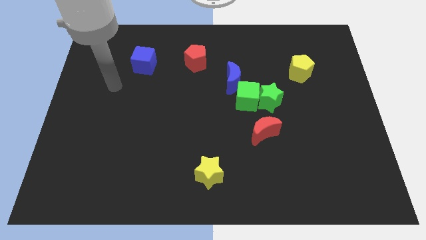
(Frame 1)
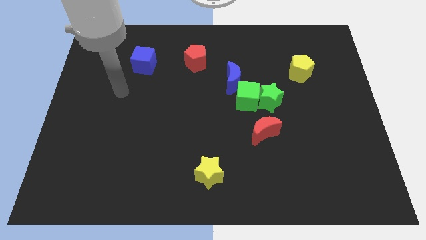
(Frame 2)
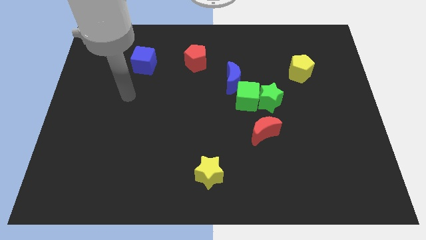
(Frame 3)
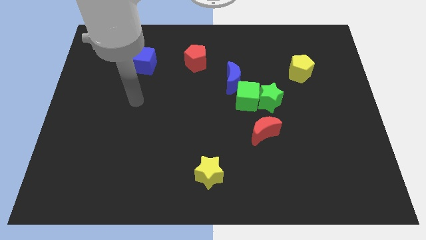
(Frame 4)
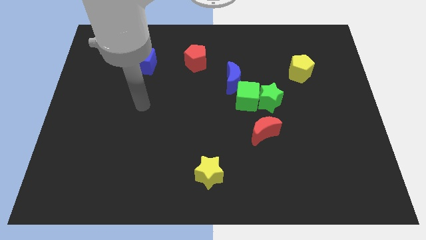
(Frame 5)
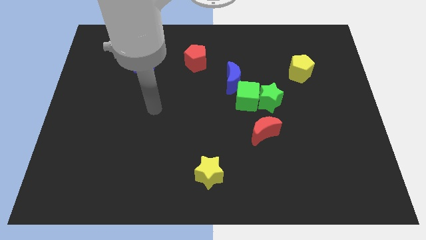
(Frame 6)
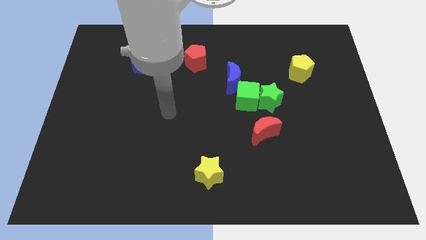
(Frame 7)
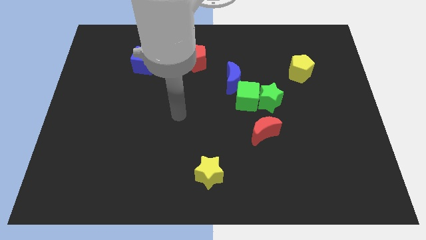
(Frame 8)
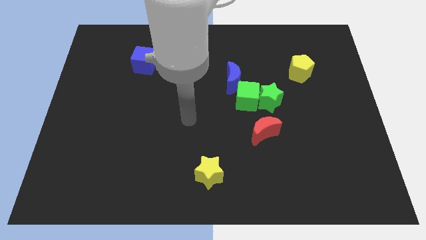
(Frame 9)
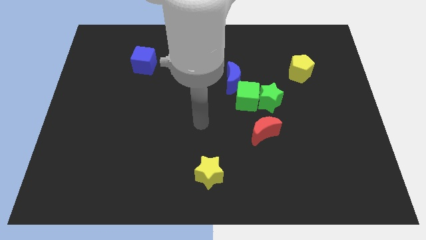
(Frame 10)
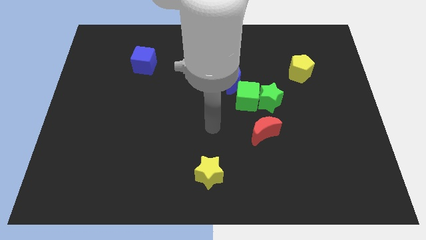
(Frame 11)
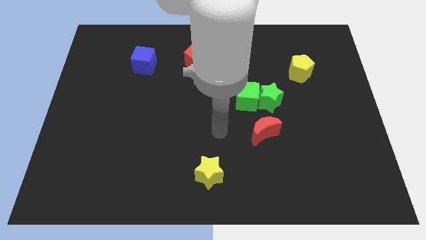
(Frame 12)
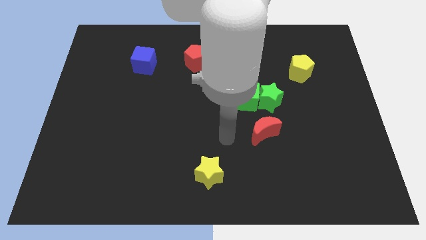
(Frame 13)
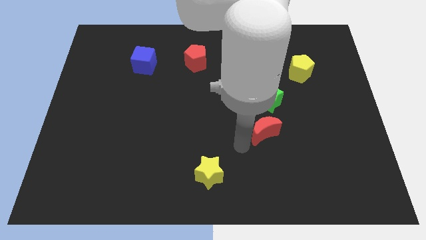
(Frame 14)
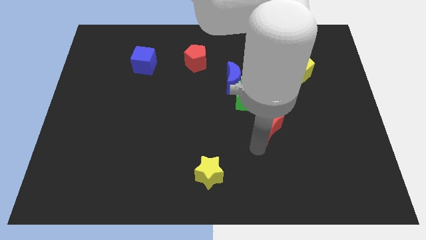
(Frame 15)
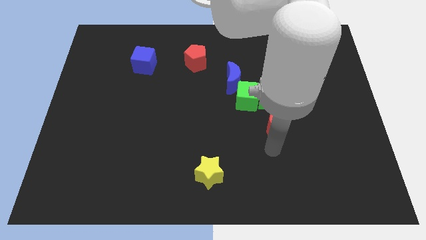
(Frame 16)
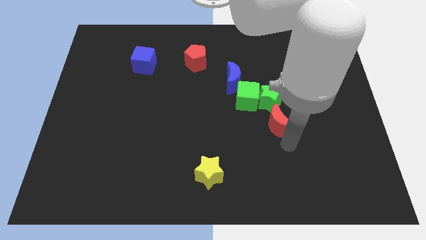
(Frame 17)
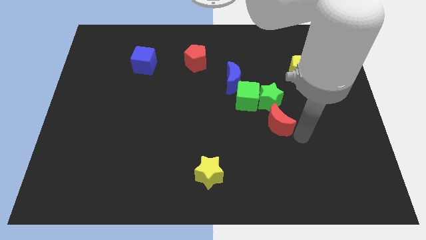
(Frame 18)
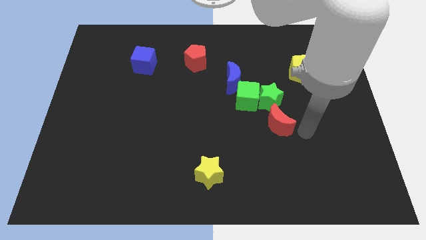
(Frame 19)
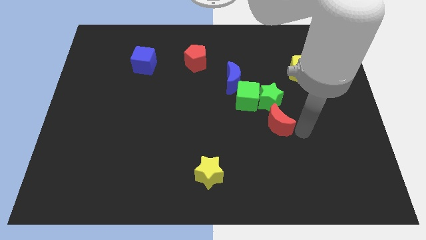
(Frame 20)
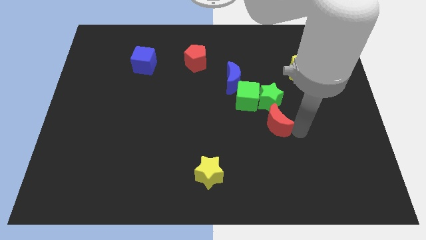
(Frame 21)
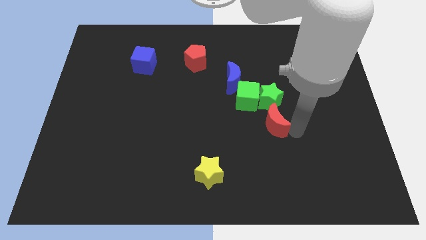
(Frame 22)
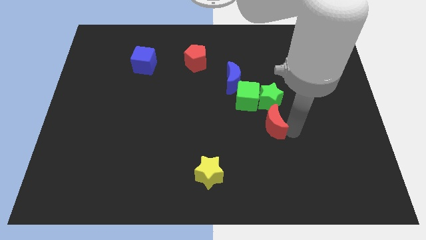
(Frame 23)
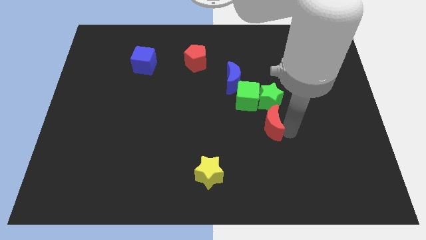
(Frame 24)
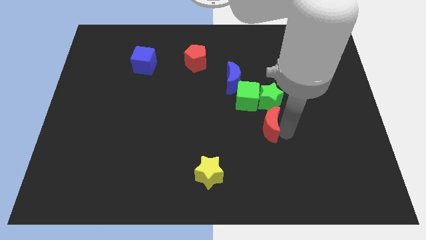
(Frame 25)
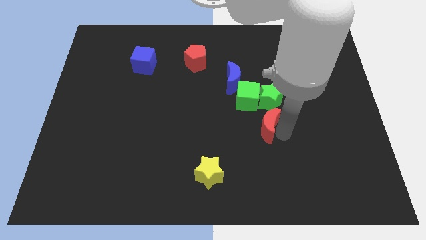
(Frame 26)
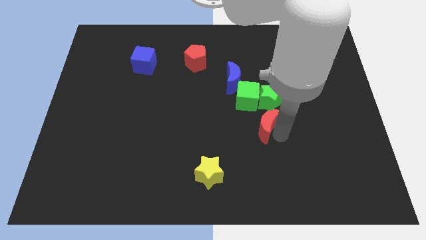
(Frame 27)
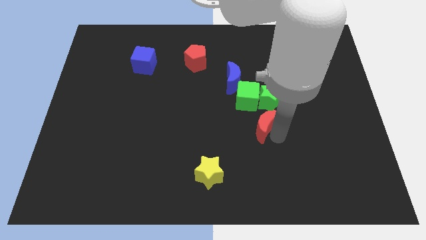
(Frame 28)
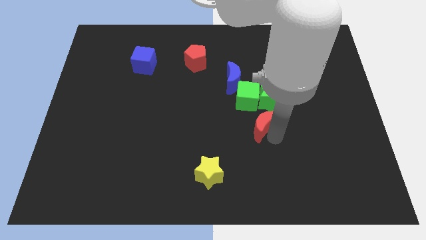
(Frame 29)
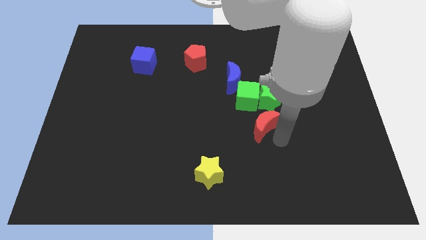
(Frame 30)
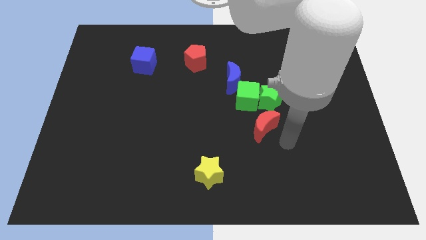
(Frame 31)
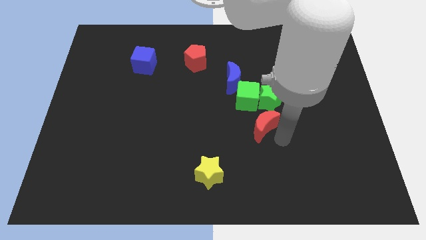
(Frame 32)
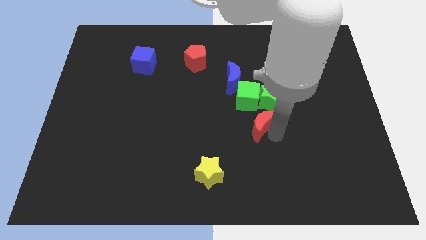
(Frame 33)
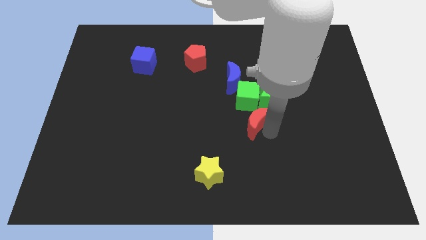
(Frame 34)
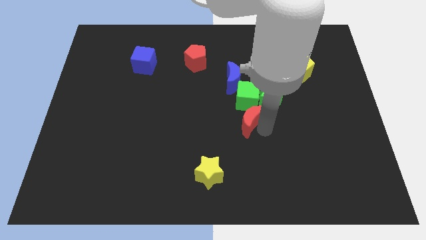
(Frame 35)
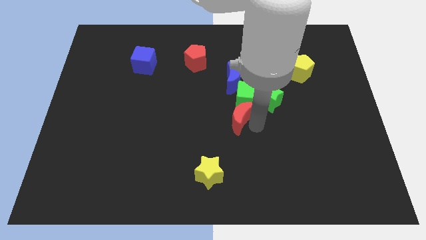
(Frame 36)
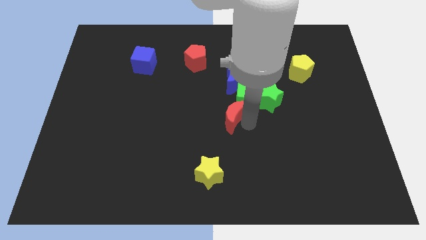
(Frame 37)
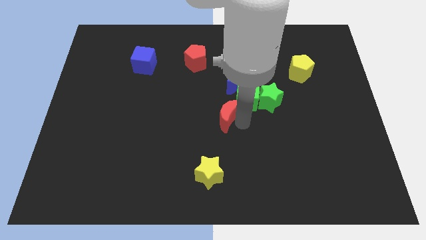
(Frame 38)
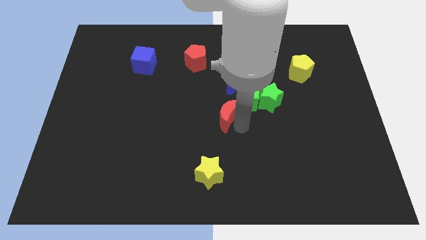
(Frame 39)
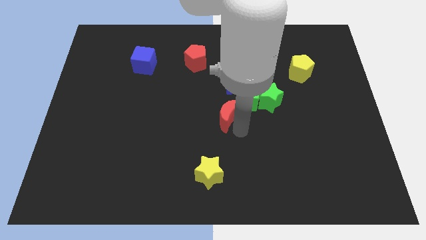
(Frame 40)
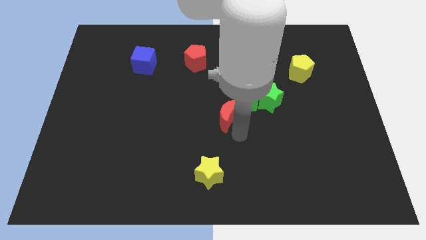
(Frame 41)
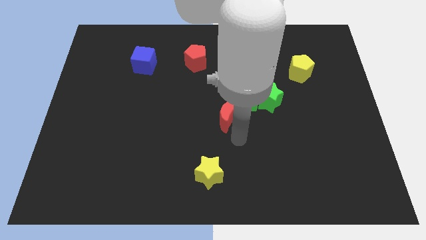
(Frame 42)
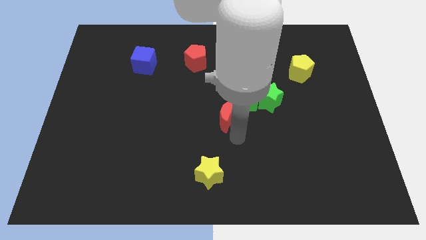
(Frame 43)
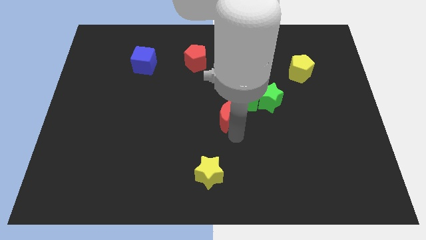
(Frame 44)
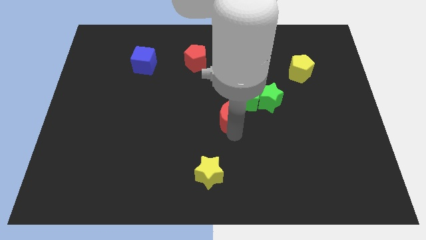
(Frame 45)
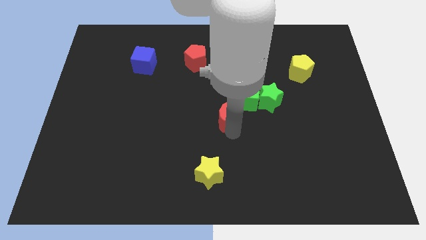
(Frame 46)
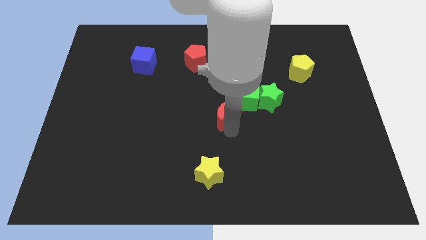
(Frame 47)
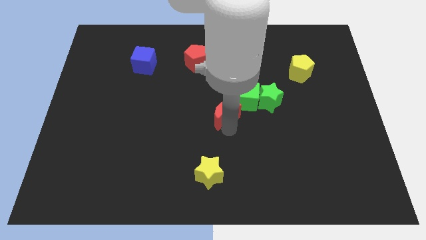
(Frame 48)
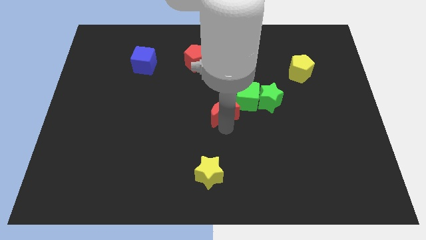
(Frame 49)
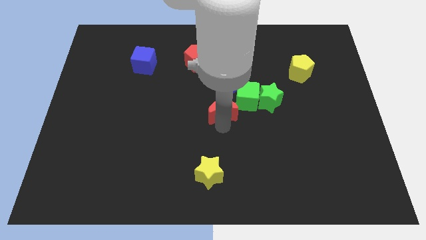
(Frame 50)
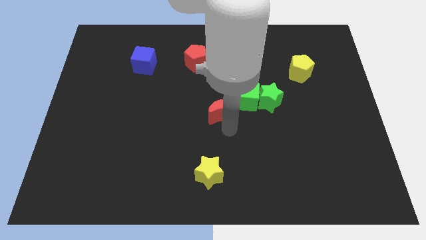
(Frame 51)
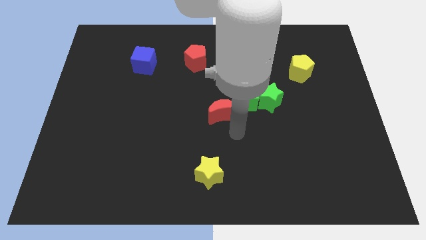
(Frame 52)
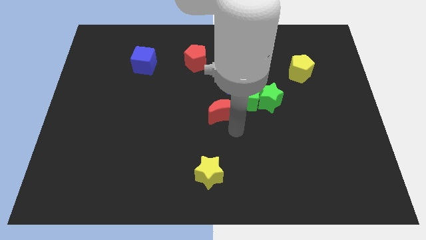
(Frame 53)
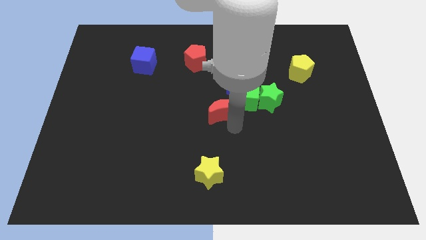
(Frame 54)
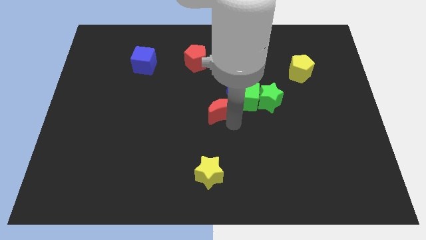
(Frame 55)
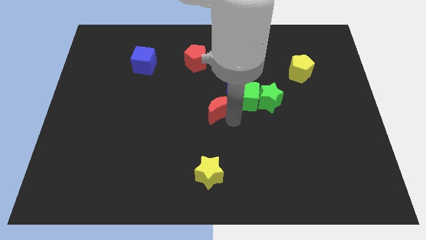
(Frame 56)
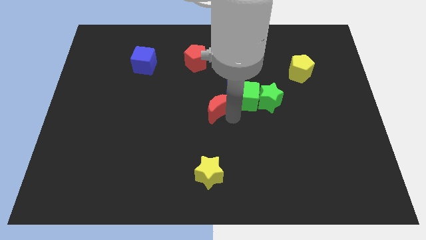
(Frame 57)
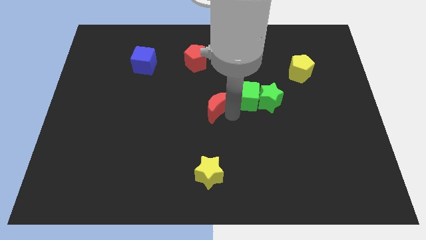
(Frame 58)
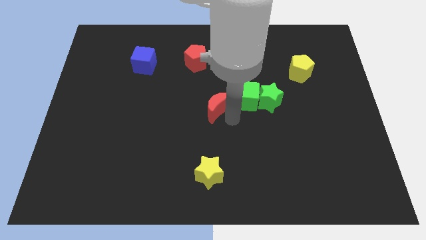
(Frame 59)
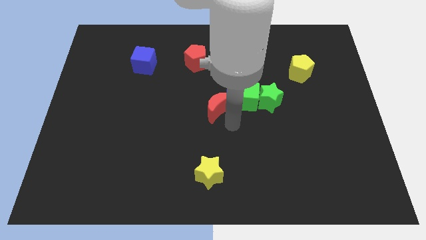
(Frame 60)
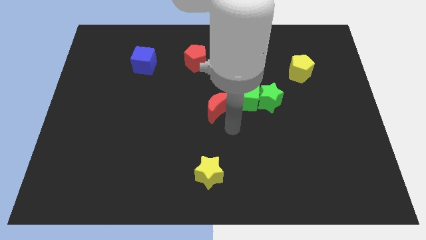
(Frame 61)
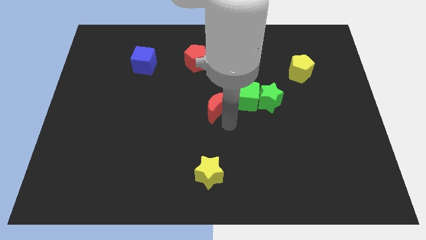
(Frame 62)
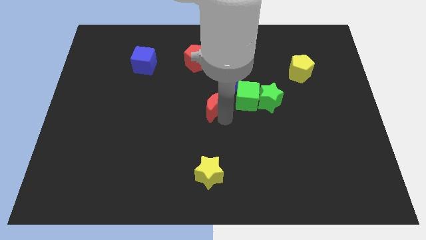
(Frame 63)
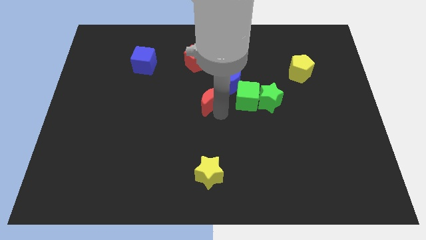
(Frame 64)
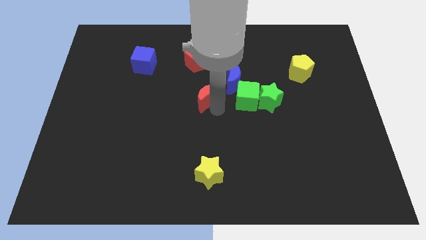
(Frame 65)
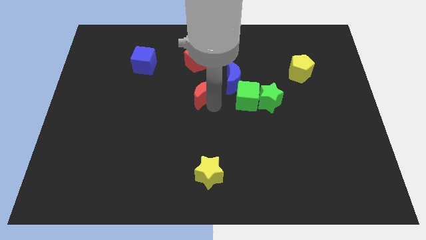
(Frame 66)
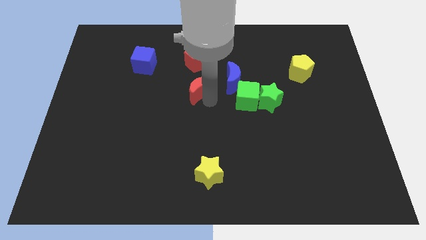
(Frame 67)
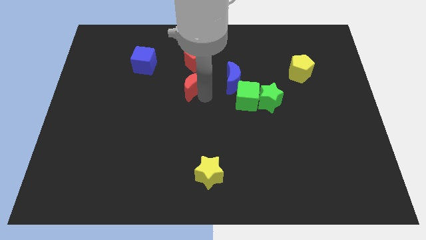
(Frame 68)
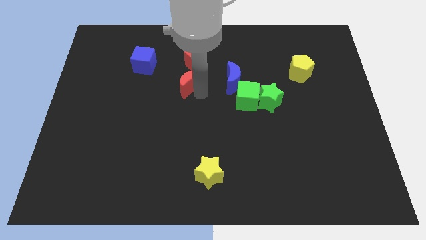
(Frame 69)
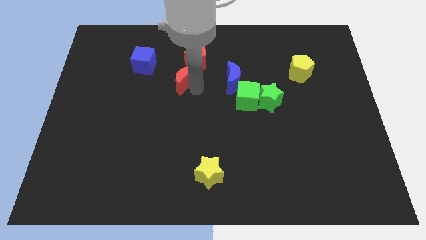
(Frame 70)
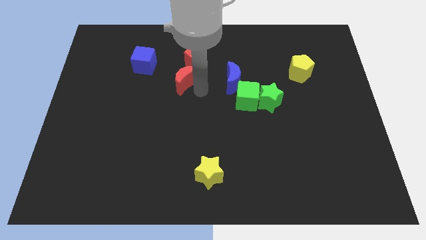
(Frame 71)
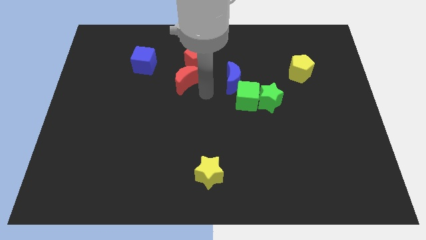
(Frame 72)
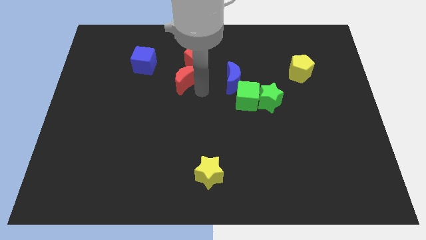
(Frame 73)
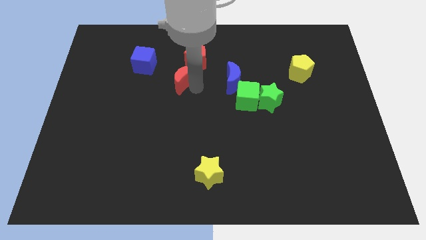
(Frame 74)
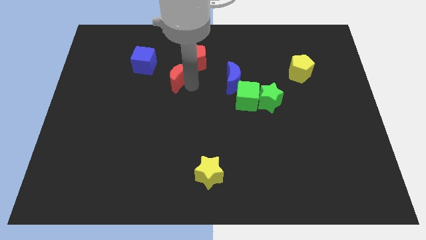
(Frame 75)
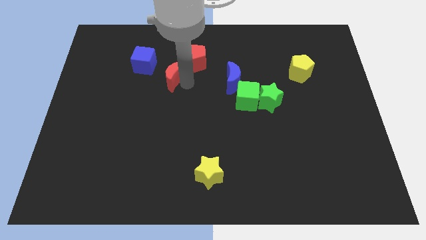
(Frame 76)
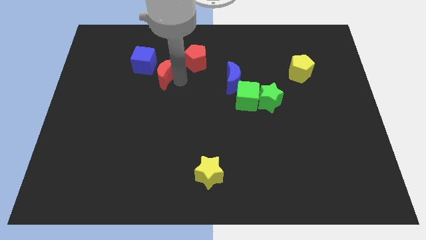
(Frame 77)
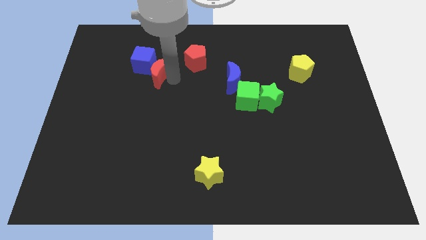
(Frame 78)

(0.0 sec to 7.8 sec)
put the red moon towards the blue cube
